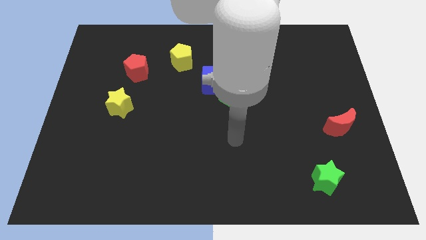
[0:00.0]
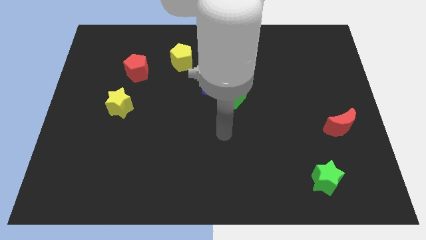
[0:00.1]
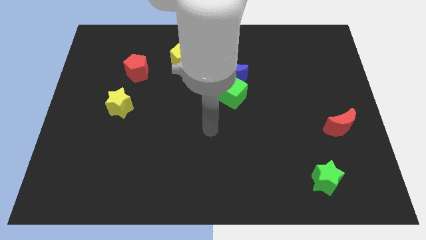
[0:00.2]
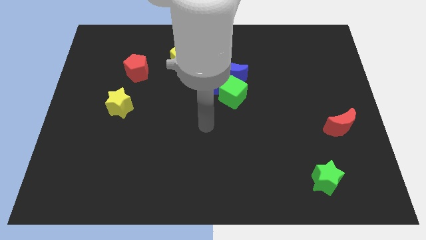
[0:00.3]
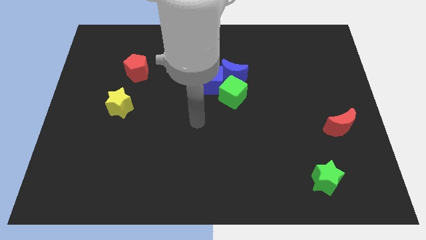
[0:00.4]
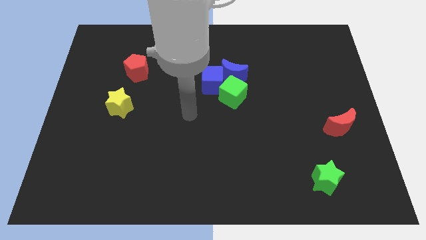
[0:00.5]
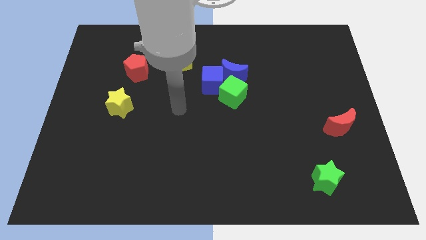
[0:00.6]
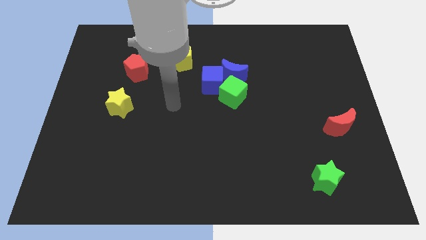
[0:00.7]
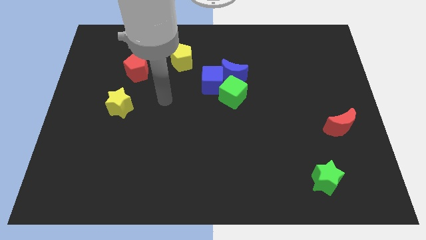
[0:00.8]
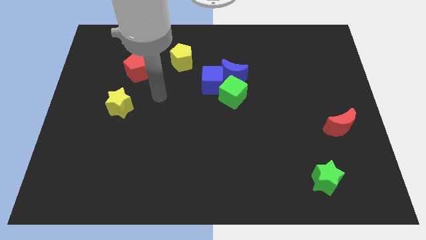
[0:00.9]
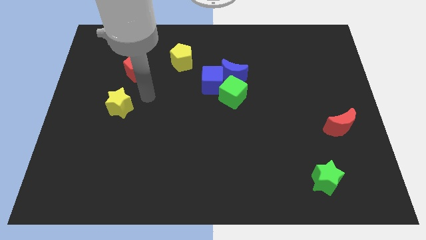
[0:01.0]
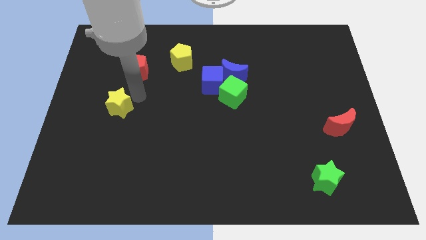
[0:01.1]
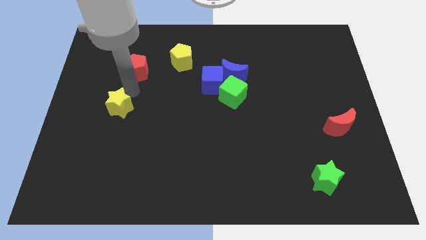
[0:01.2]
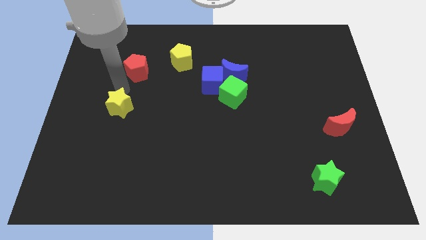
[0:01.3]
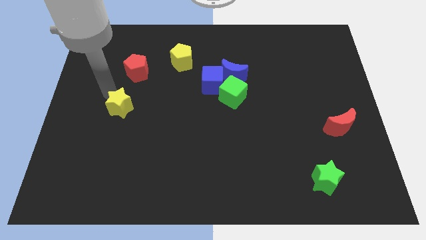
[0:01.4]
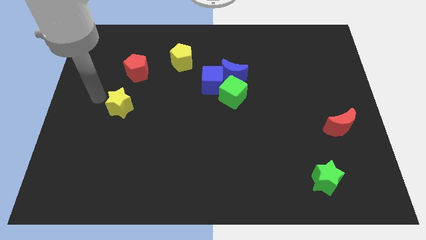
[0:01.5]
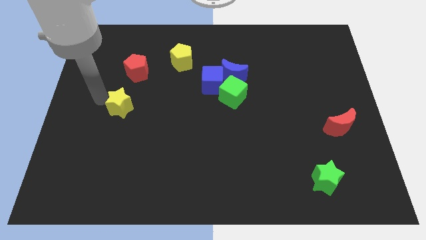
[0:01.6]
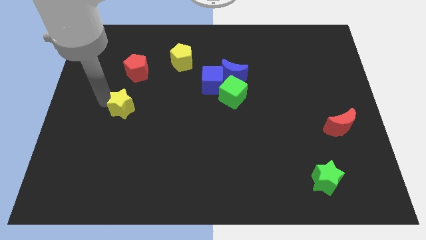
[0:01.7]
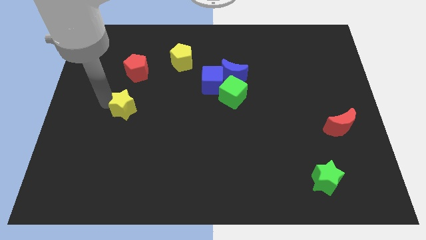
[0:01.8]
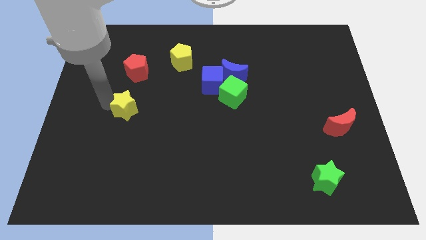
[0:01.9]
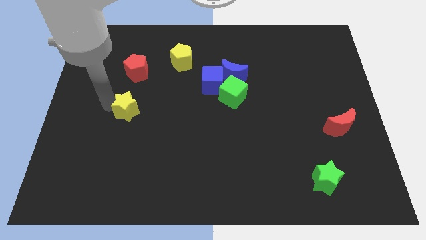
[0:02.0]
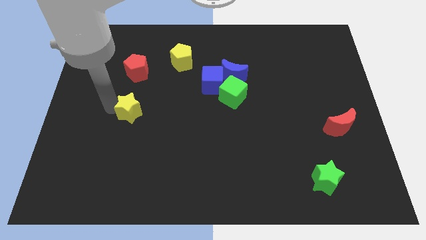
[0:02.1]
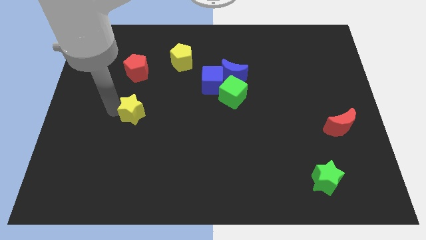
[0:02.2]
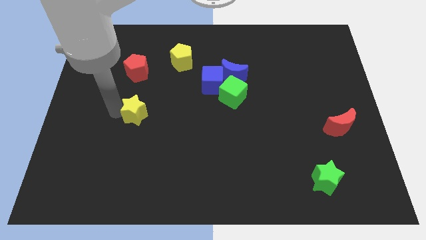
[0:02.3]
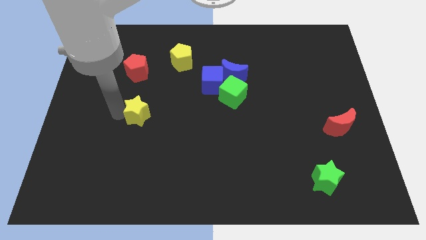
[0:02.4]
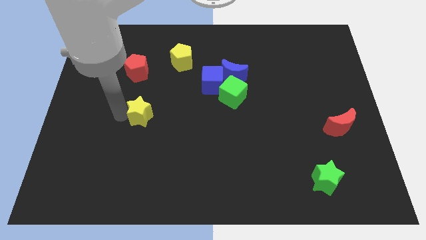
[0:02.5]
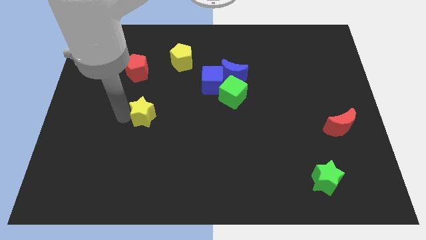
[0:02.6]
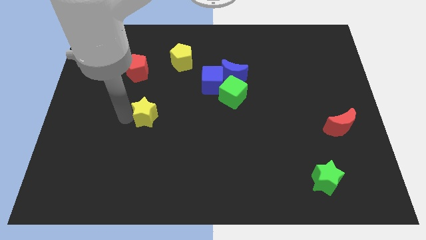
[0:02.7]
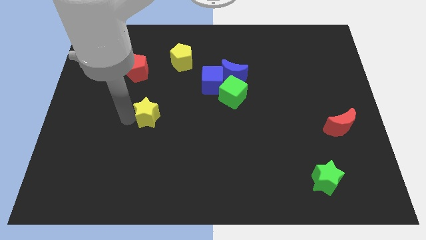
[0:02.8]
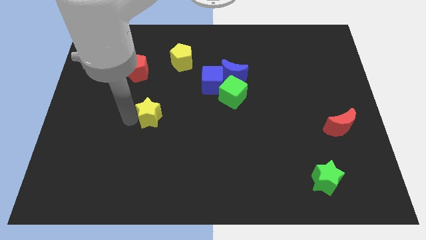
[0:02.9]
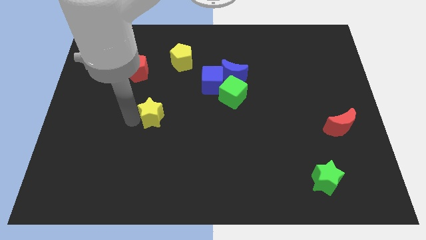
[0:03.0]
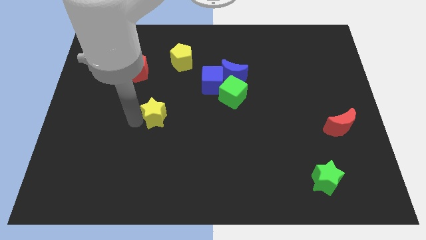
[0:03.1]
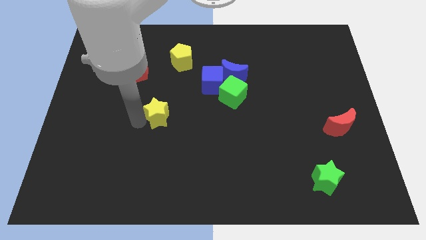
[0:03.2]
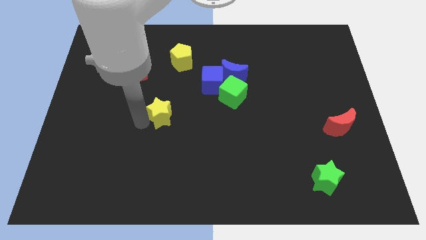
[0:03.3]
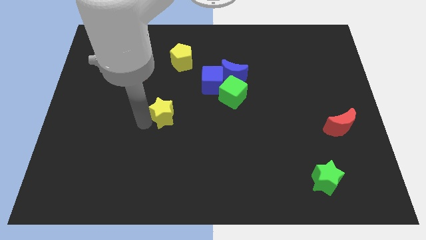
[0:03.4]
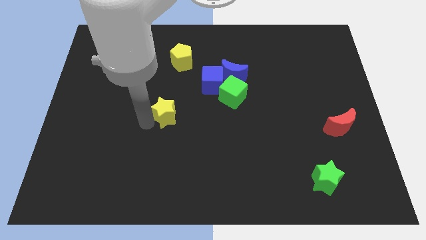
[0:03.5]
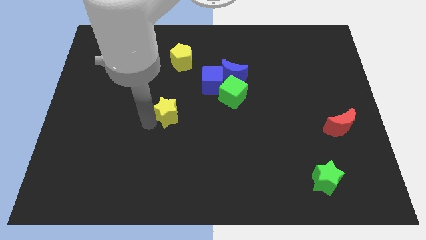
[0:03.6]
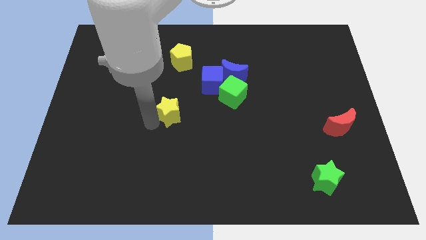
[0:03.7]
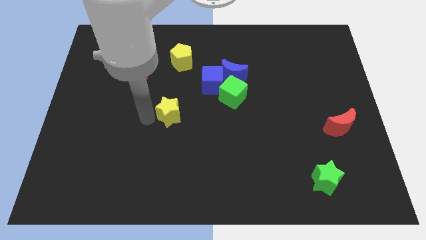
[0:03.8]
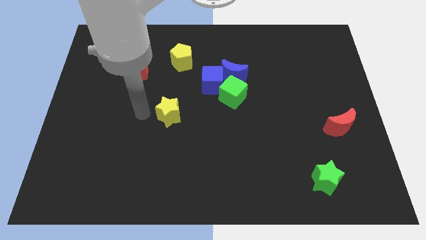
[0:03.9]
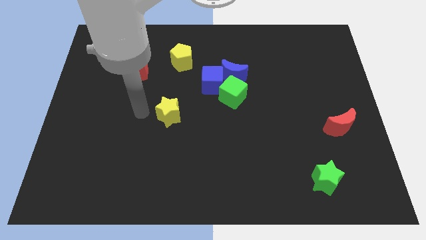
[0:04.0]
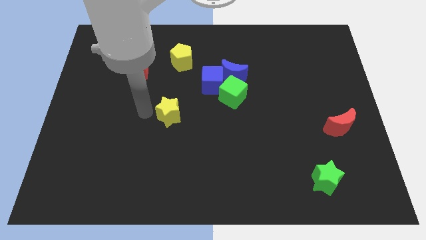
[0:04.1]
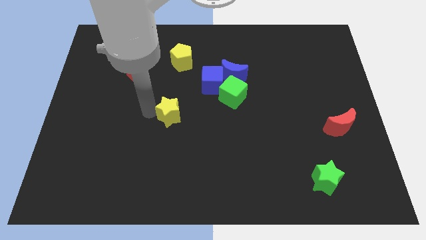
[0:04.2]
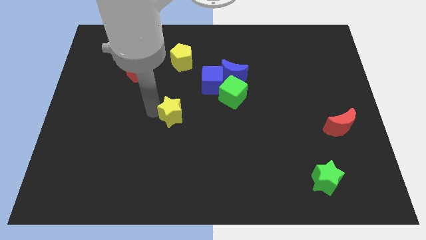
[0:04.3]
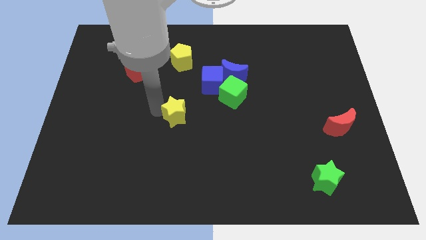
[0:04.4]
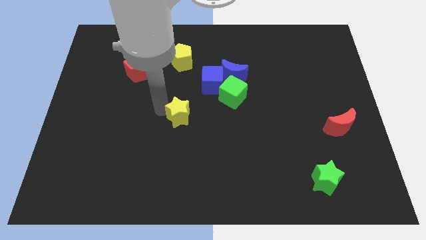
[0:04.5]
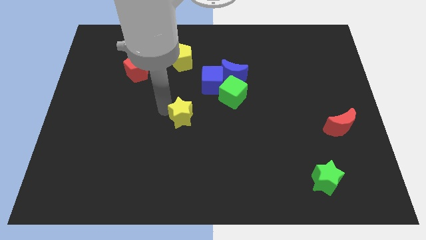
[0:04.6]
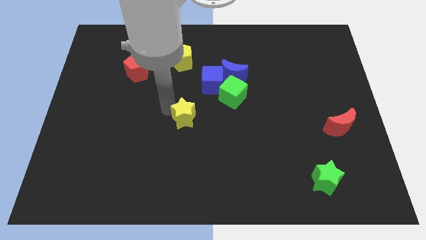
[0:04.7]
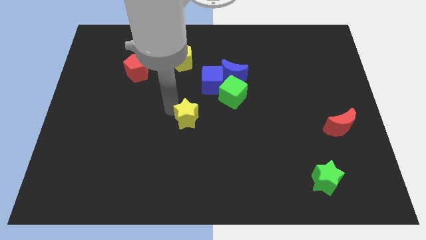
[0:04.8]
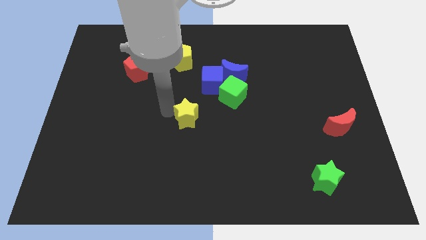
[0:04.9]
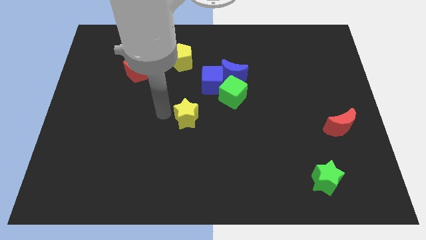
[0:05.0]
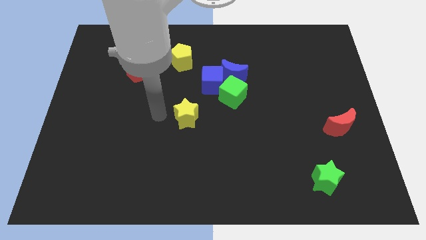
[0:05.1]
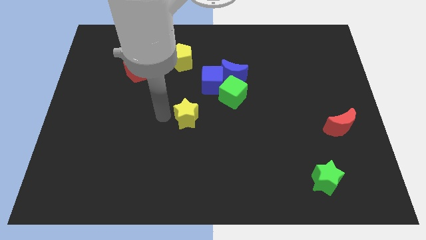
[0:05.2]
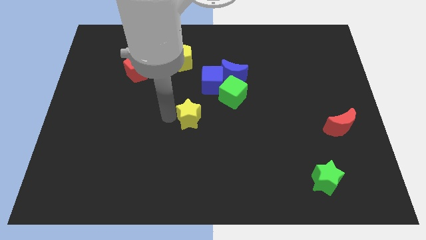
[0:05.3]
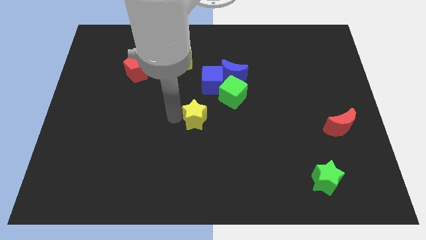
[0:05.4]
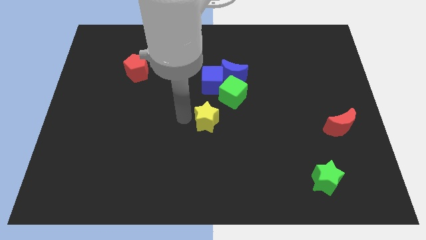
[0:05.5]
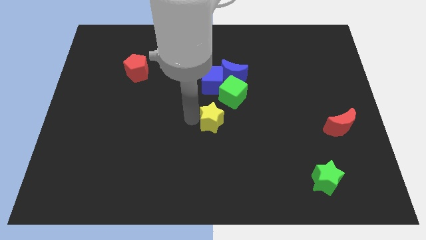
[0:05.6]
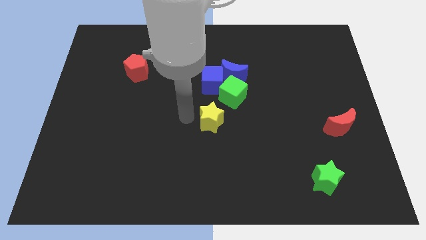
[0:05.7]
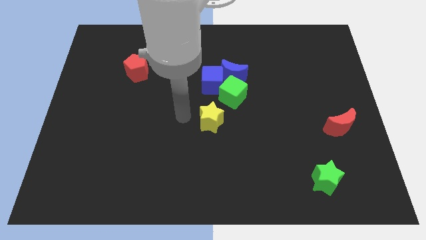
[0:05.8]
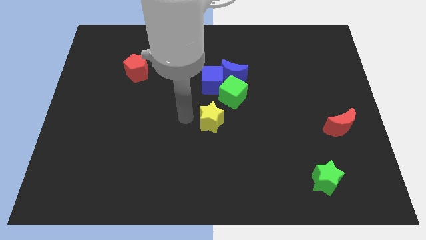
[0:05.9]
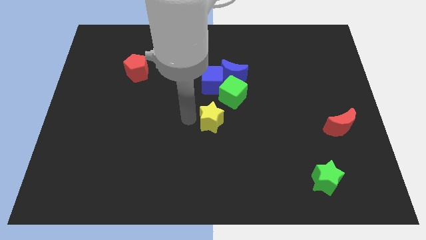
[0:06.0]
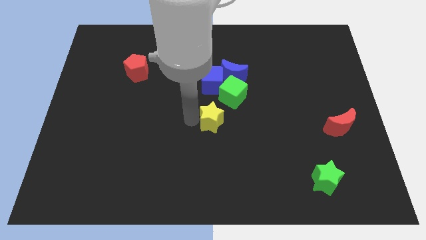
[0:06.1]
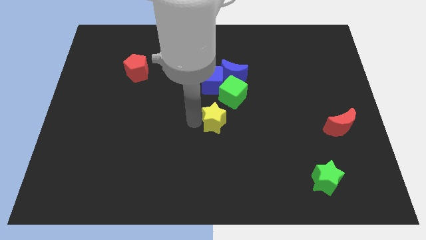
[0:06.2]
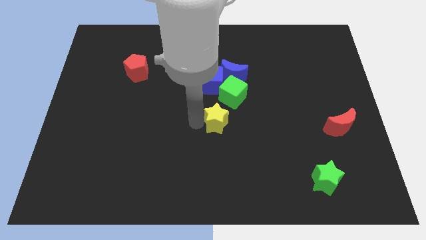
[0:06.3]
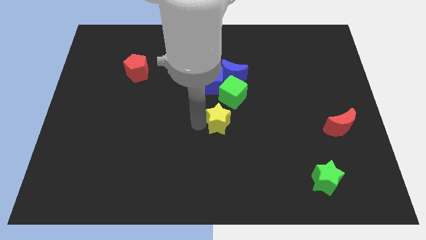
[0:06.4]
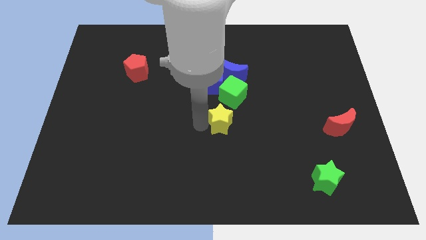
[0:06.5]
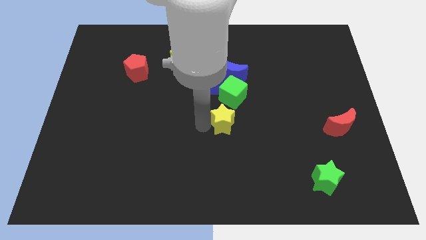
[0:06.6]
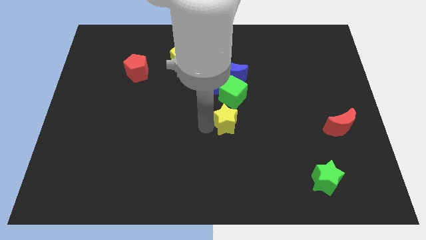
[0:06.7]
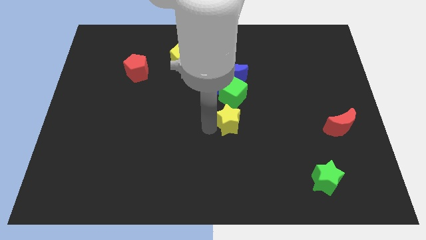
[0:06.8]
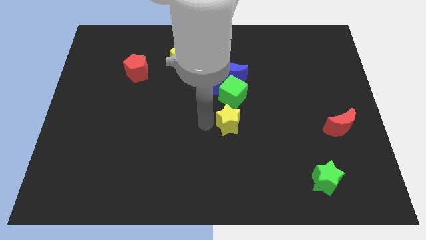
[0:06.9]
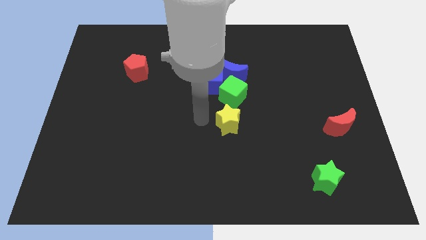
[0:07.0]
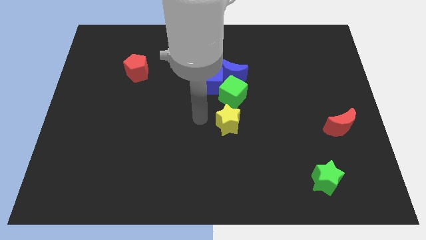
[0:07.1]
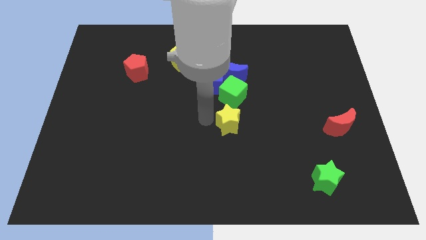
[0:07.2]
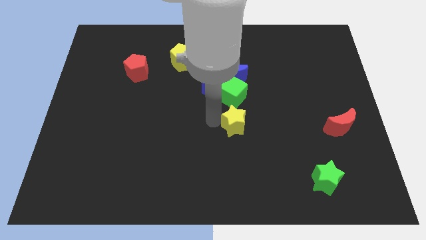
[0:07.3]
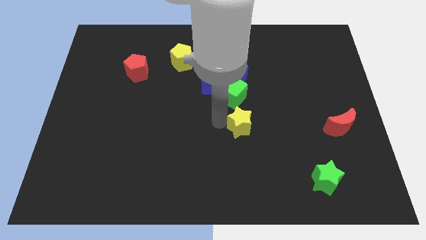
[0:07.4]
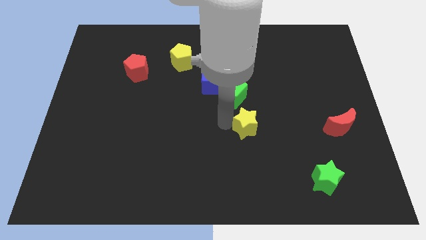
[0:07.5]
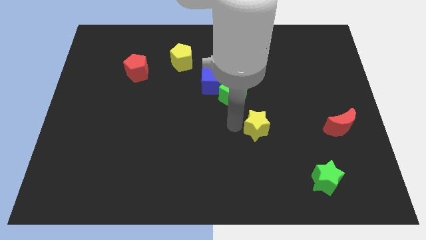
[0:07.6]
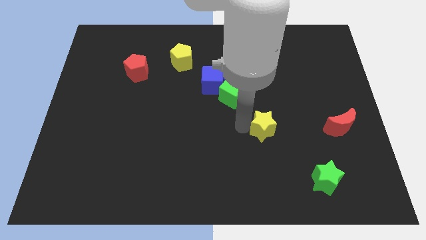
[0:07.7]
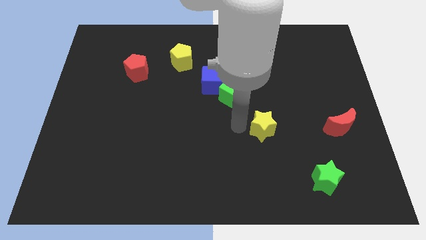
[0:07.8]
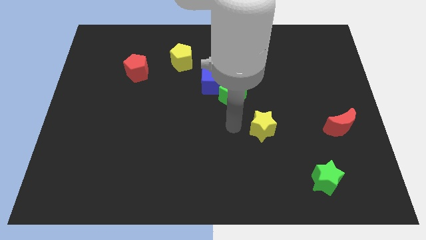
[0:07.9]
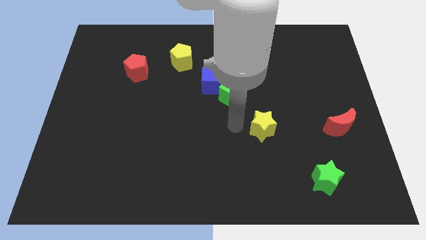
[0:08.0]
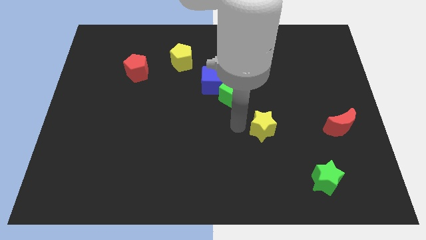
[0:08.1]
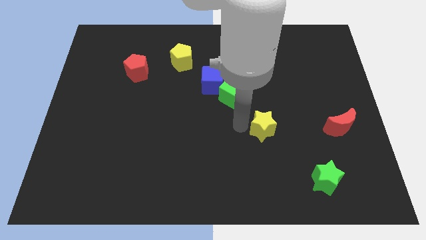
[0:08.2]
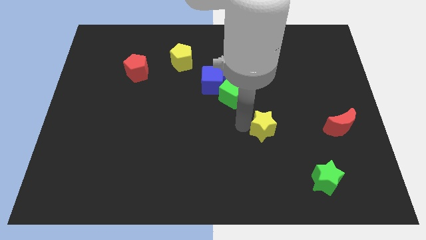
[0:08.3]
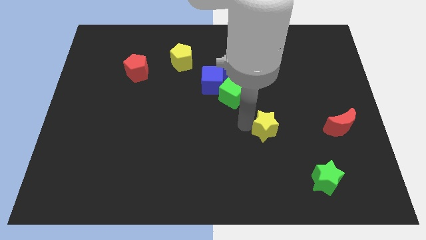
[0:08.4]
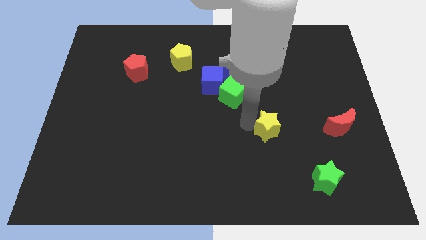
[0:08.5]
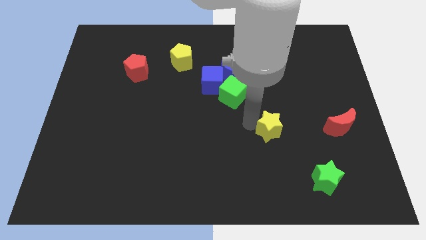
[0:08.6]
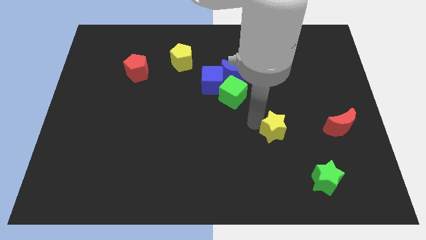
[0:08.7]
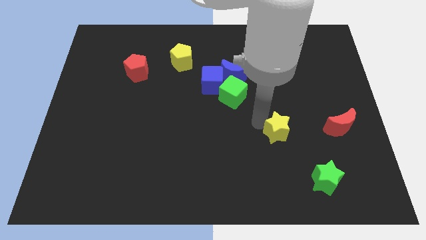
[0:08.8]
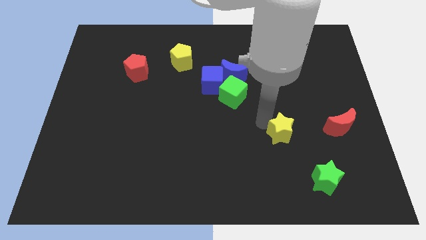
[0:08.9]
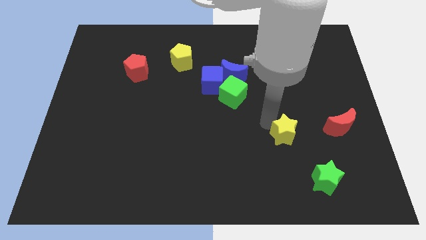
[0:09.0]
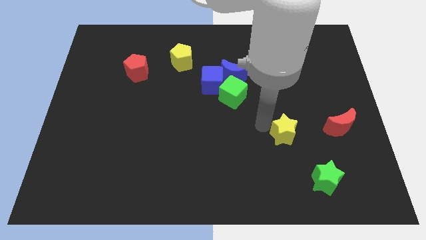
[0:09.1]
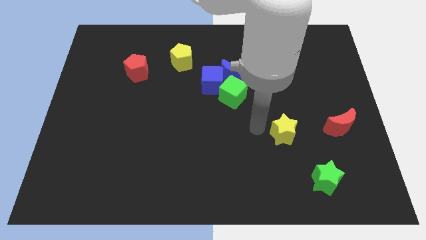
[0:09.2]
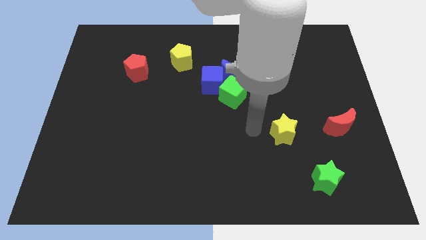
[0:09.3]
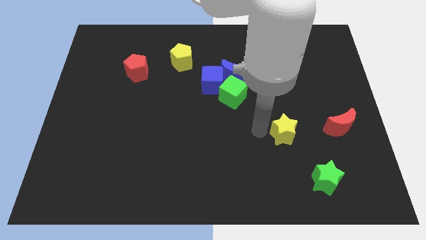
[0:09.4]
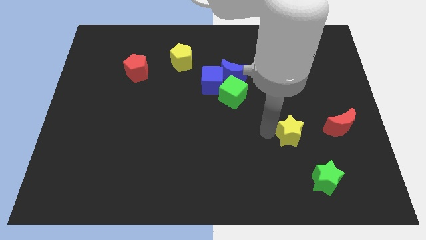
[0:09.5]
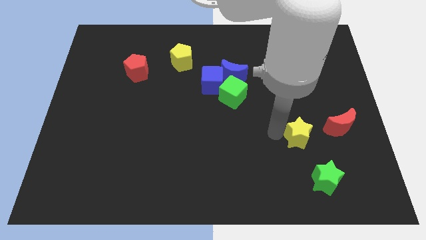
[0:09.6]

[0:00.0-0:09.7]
put the yellow star to the top side of the green star
